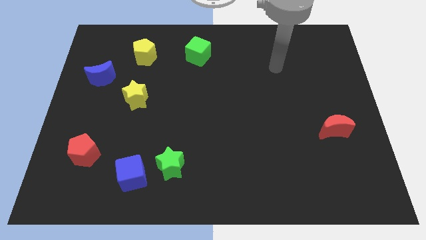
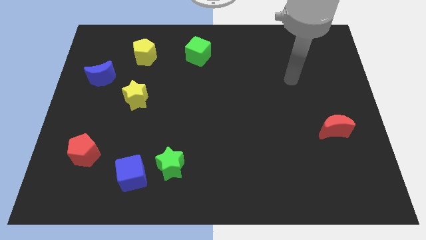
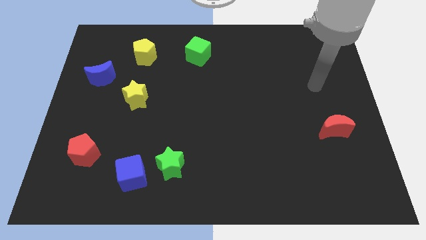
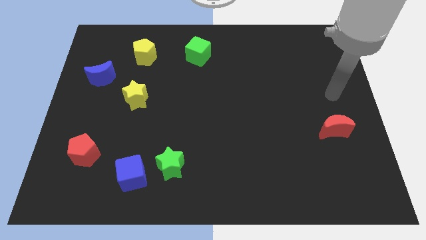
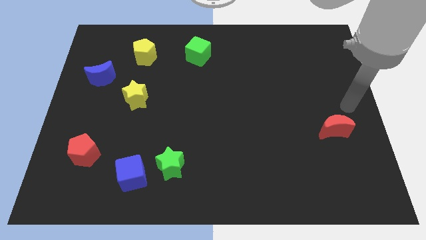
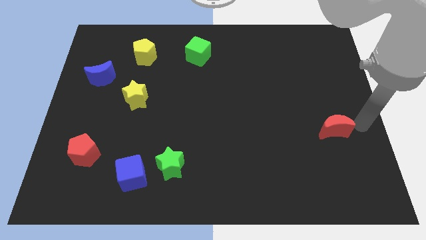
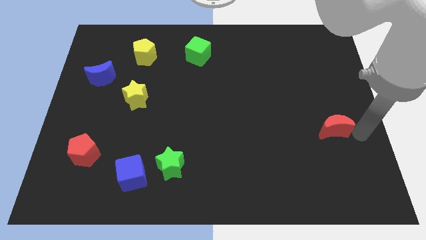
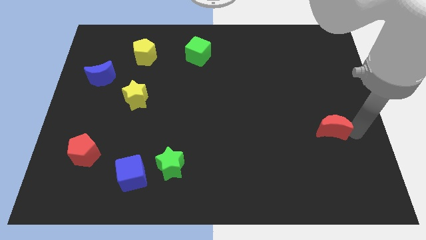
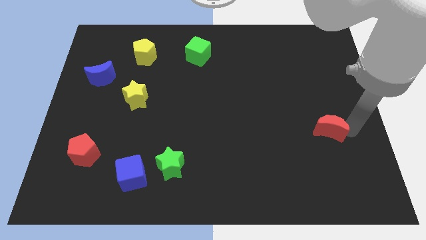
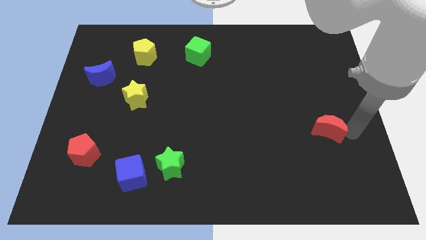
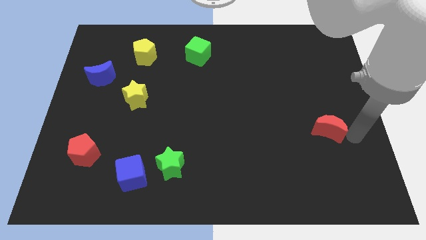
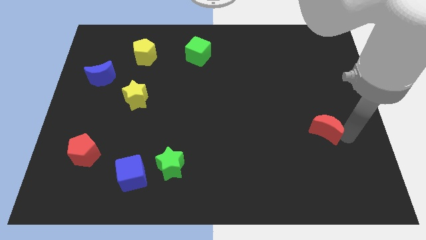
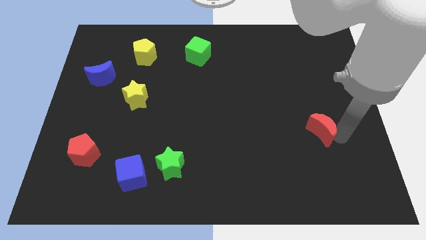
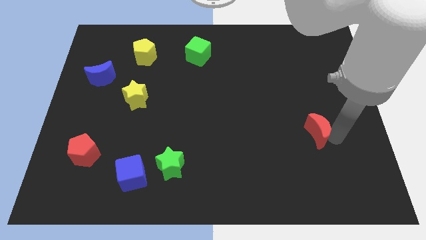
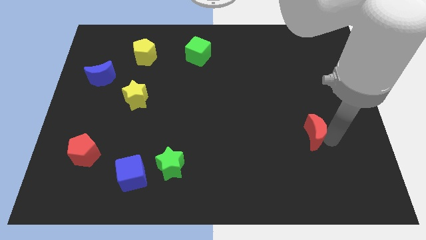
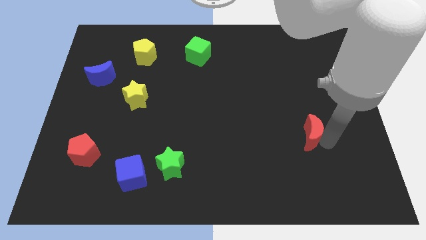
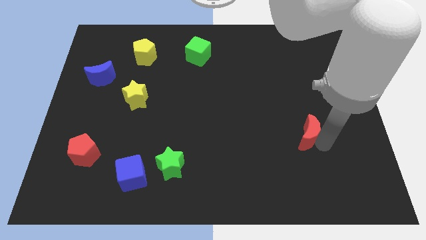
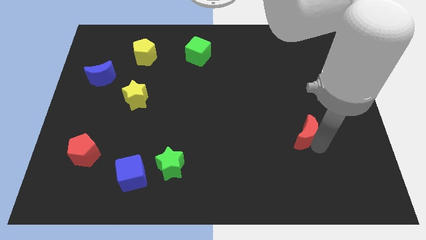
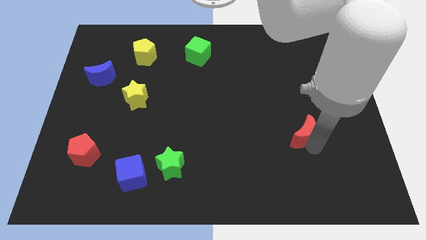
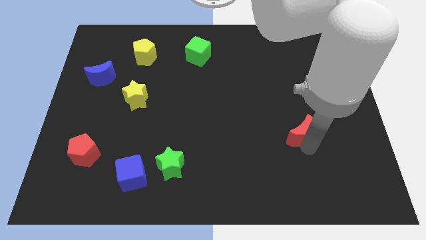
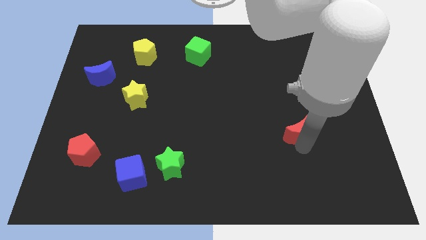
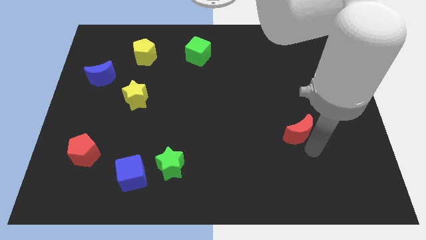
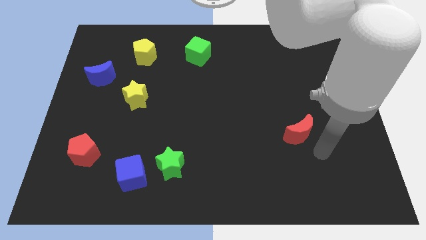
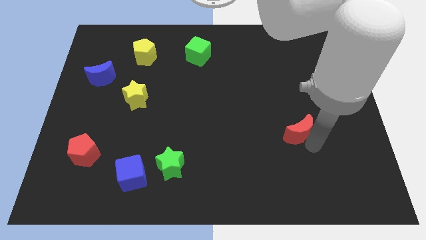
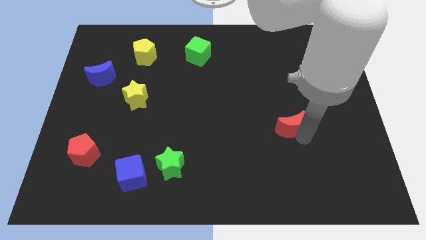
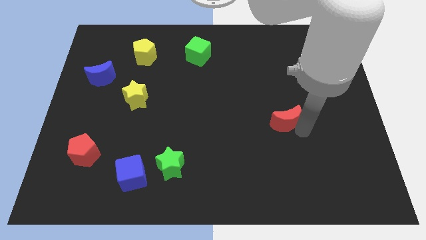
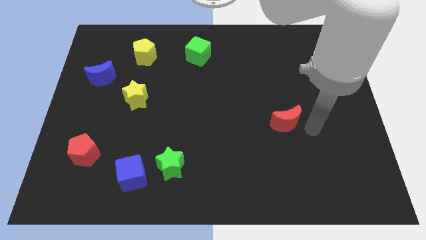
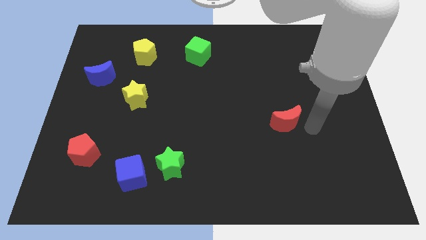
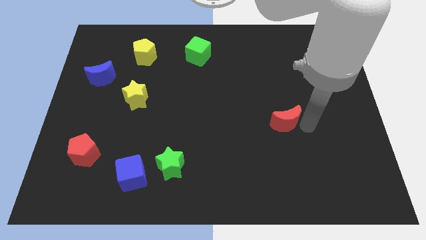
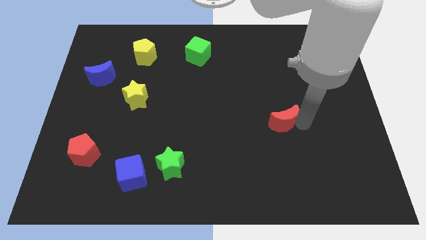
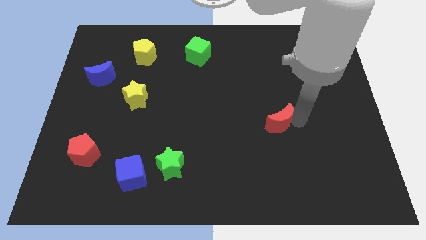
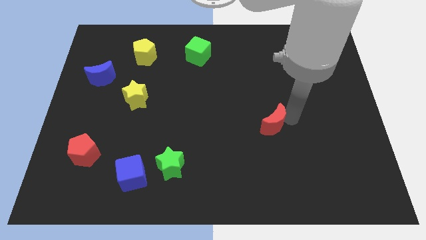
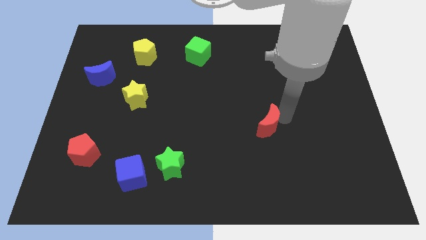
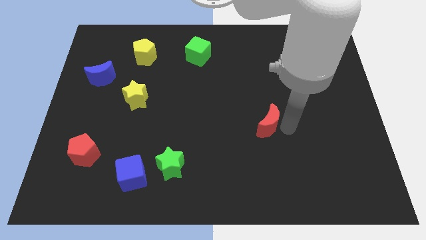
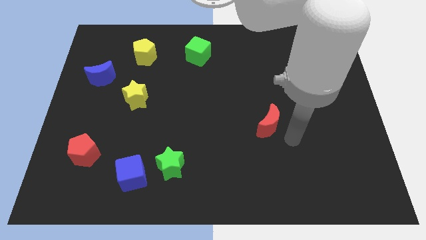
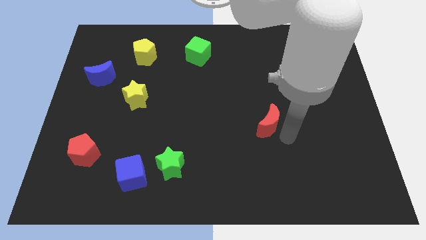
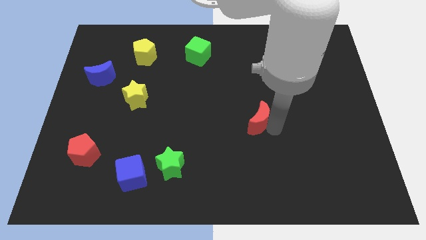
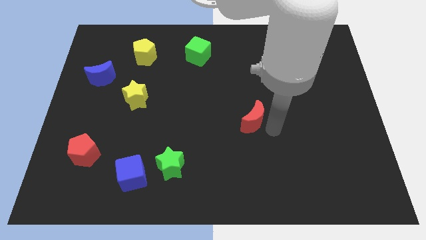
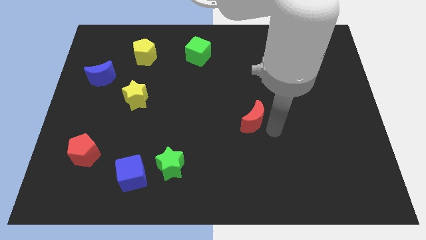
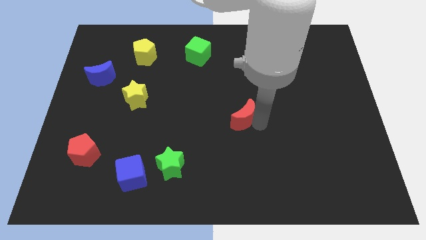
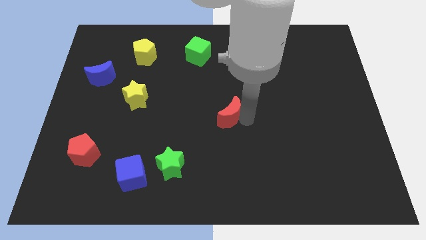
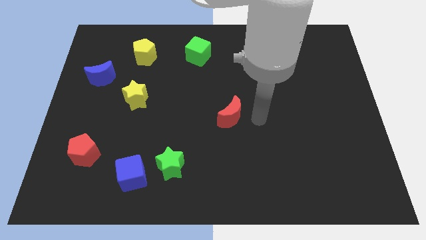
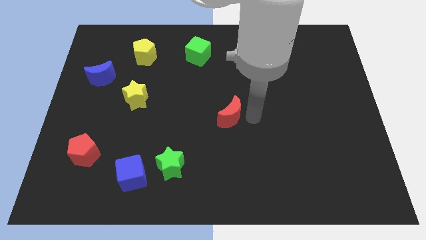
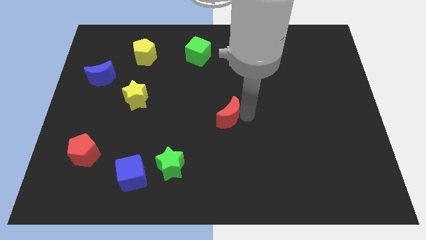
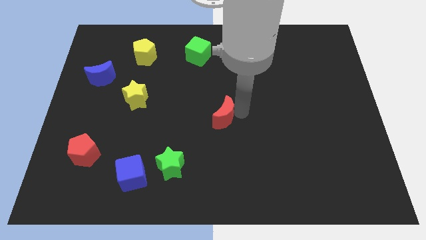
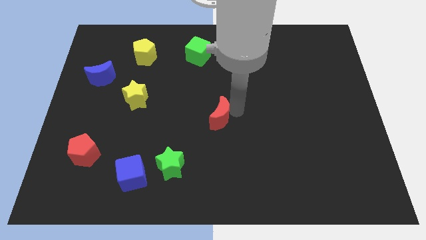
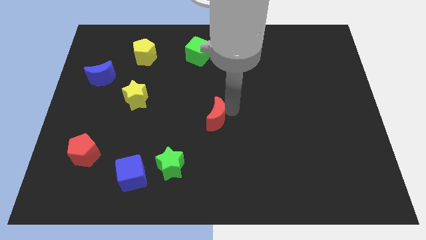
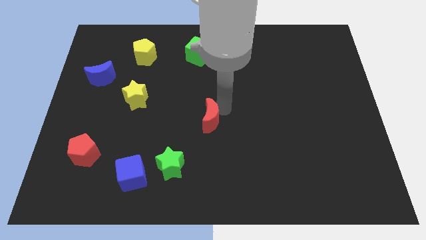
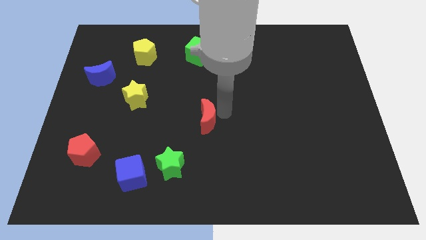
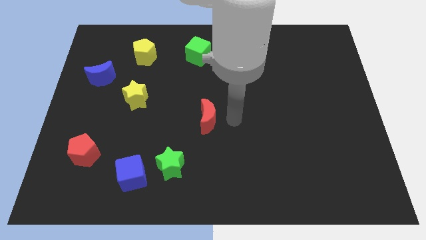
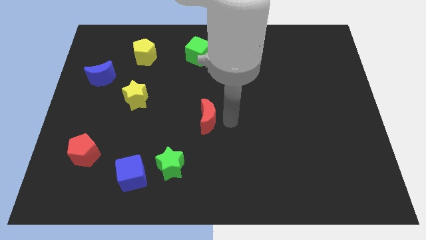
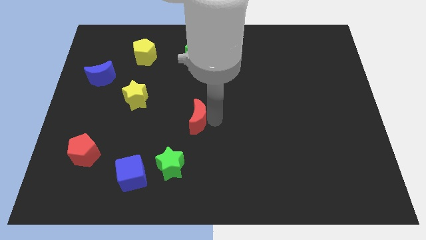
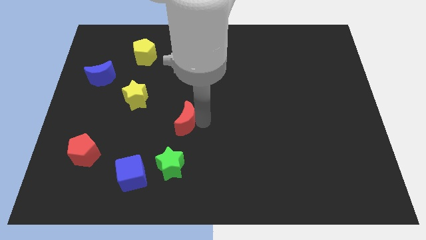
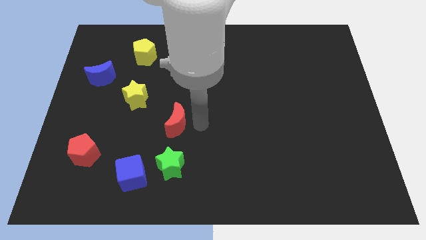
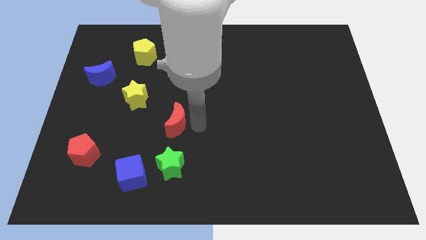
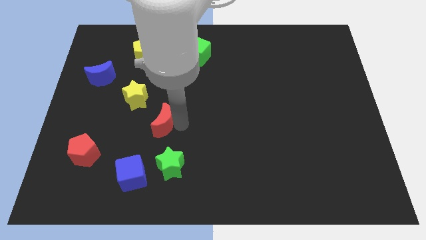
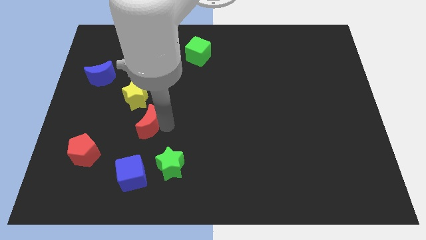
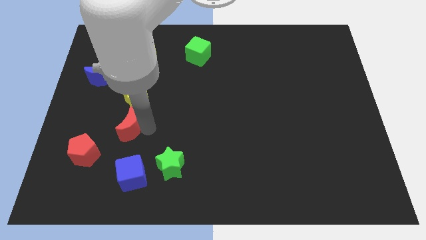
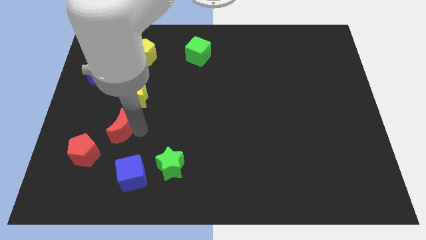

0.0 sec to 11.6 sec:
put the red moon to the bottom left of the yellow star

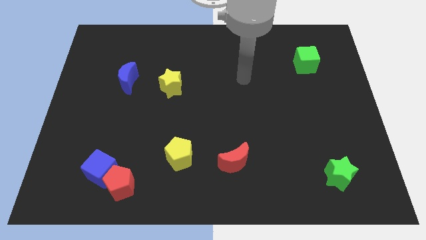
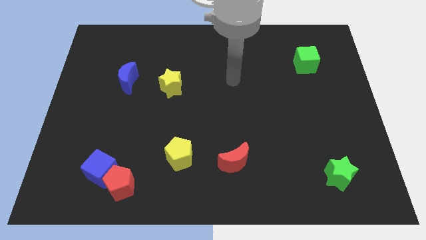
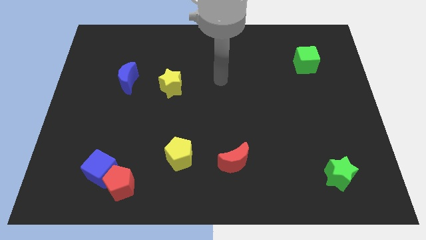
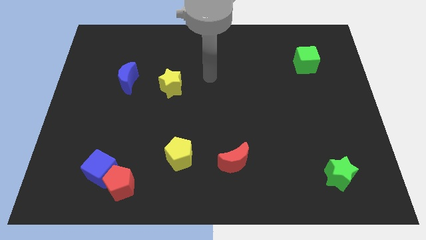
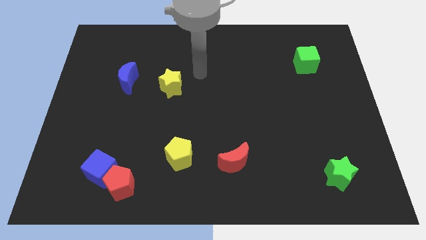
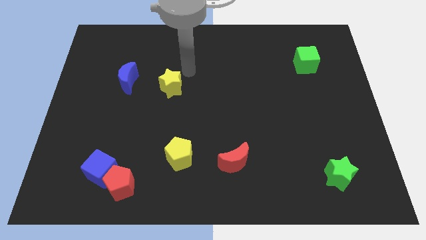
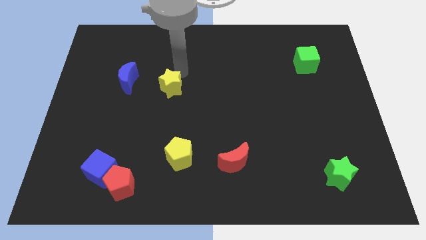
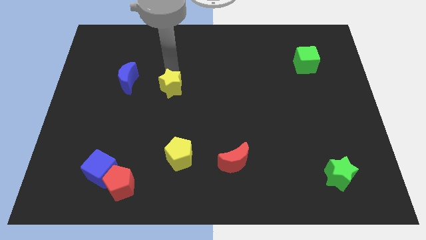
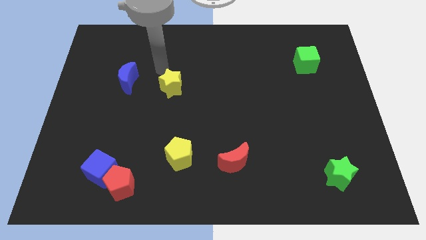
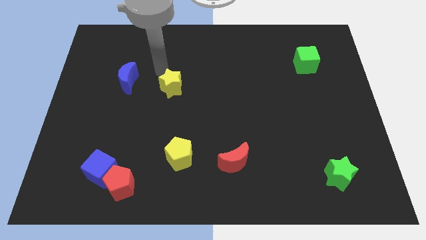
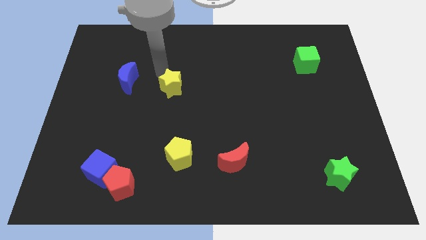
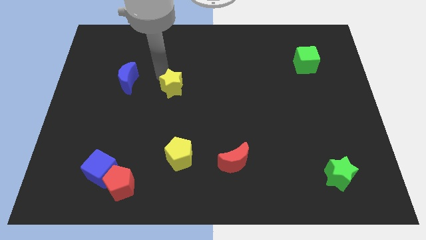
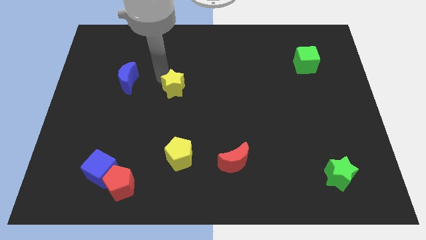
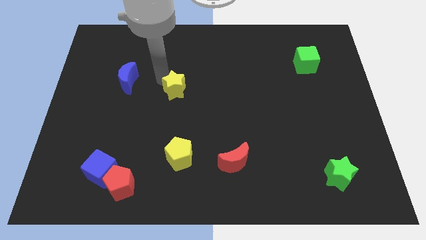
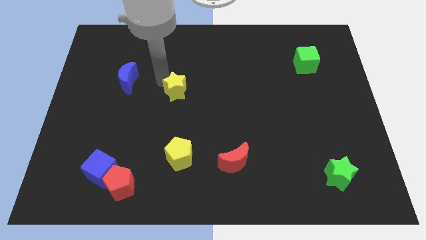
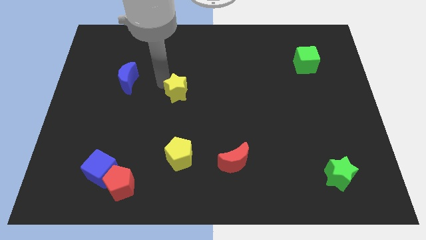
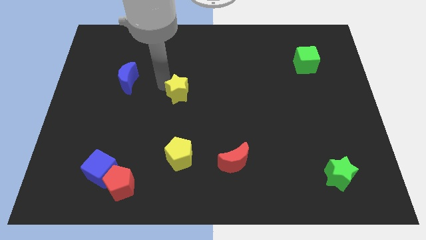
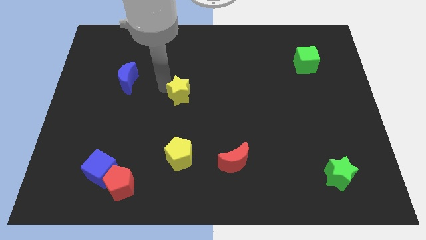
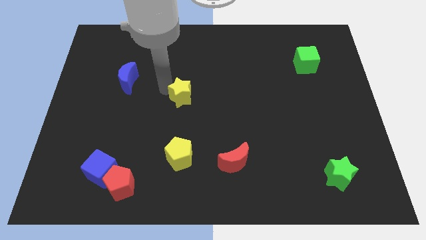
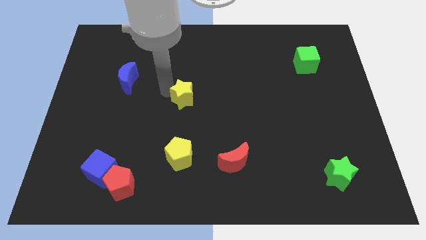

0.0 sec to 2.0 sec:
move the yellow star above the yellow pentagon
